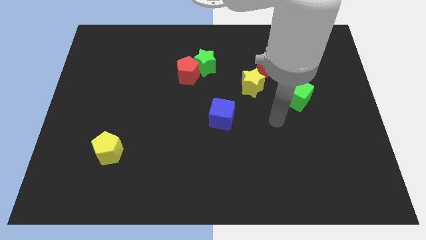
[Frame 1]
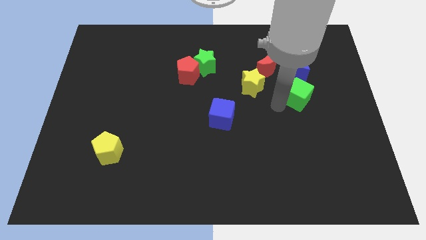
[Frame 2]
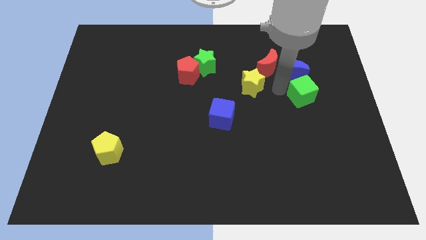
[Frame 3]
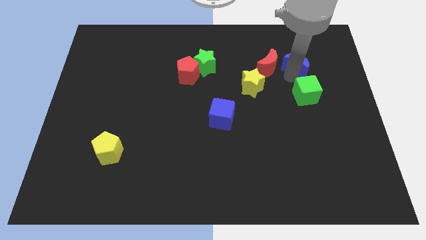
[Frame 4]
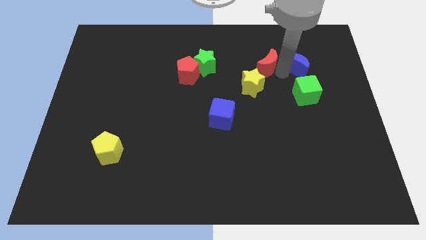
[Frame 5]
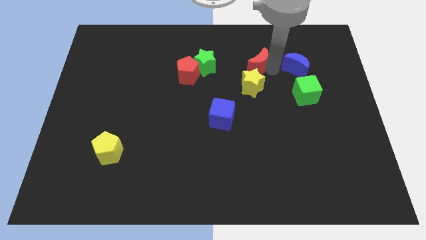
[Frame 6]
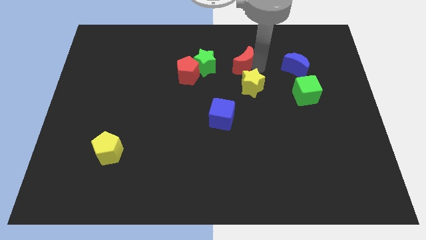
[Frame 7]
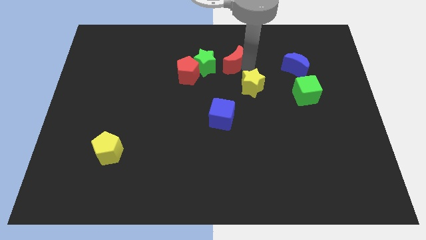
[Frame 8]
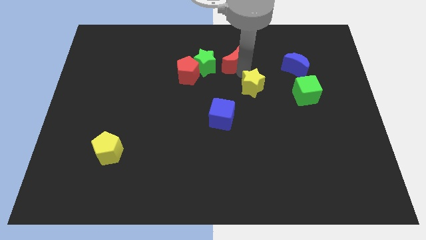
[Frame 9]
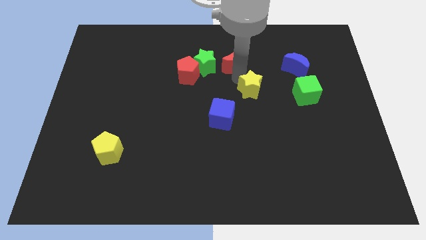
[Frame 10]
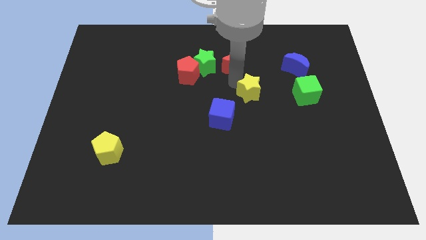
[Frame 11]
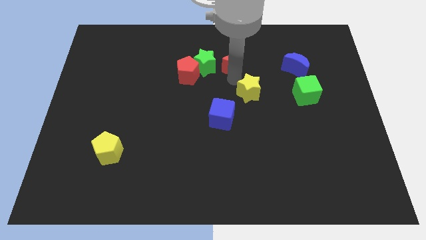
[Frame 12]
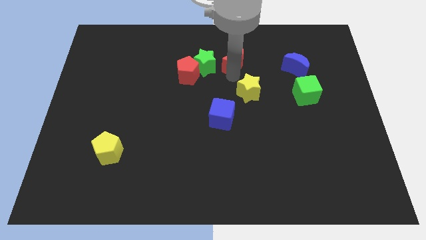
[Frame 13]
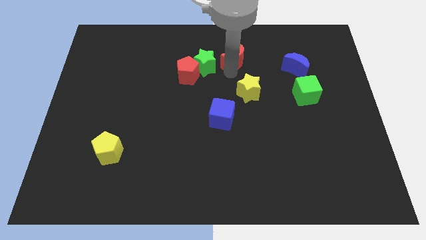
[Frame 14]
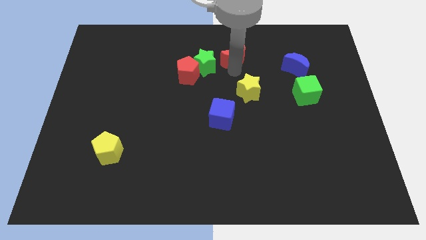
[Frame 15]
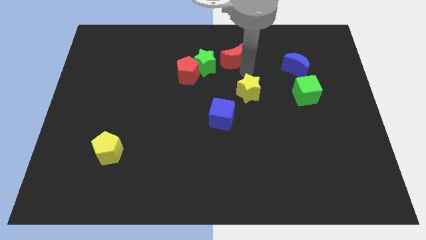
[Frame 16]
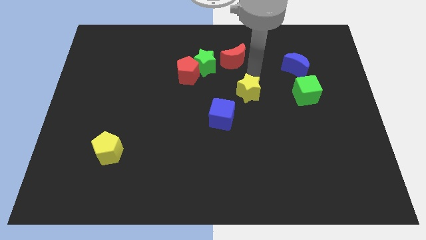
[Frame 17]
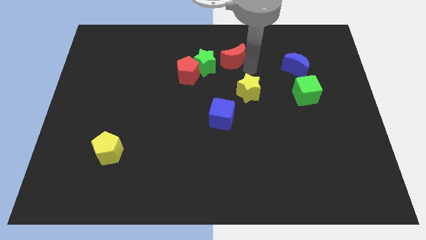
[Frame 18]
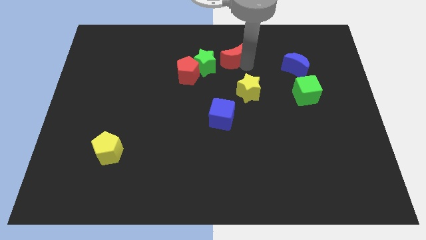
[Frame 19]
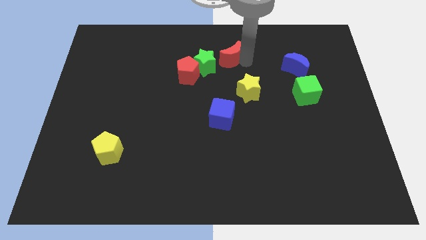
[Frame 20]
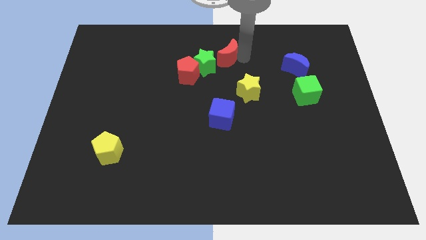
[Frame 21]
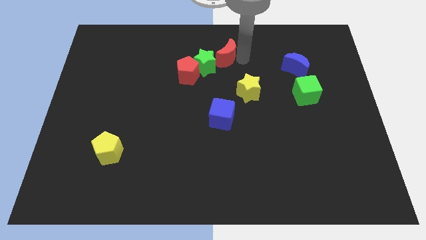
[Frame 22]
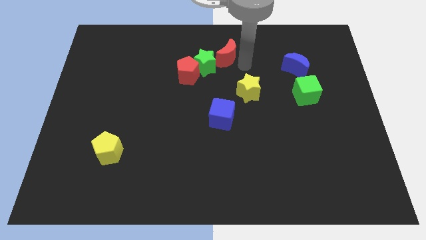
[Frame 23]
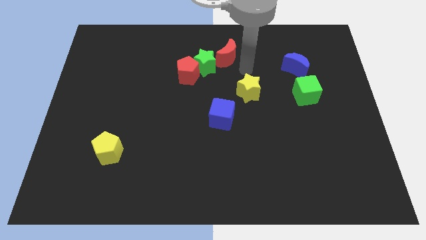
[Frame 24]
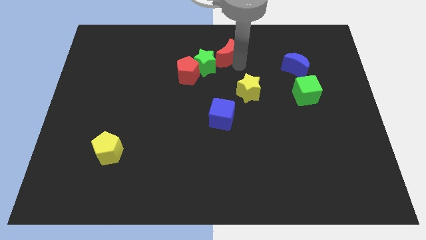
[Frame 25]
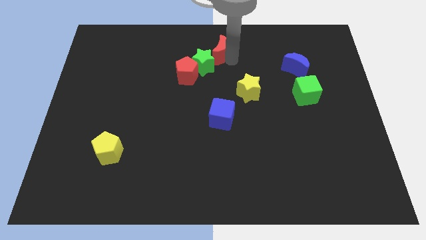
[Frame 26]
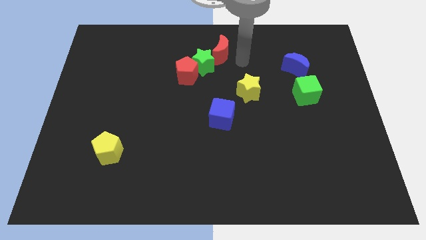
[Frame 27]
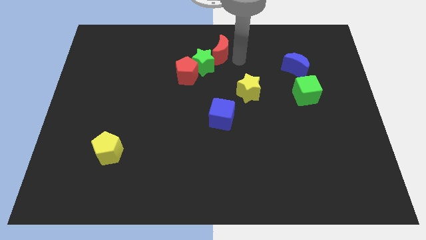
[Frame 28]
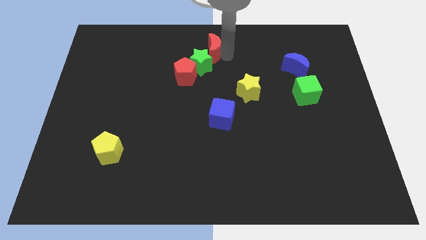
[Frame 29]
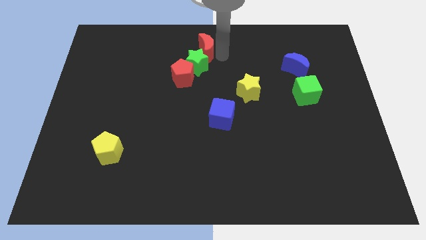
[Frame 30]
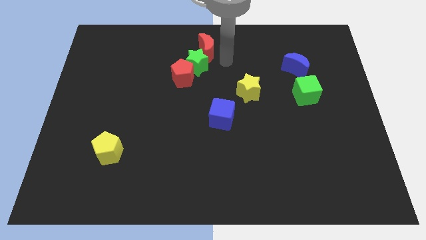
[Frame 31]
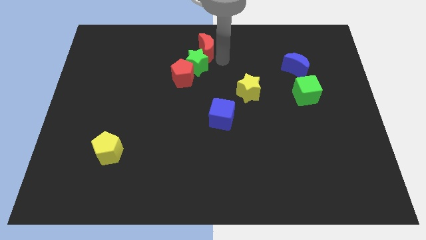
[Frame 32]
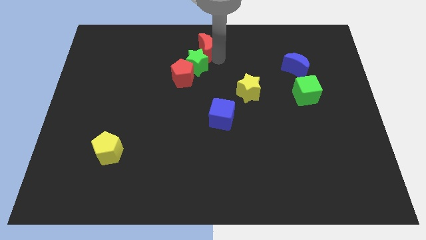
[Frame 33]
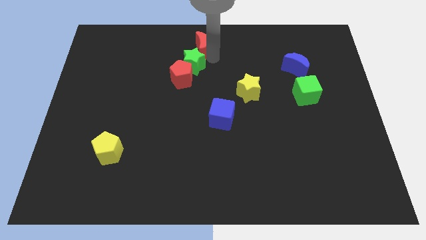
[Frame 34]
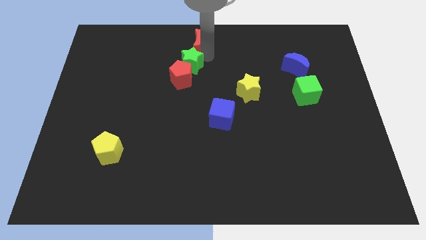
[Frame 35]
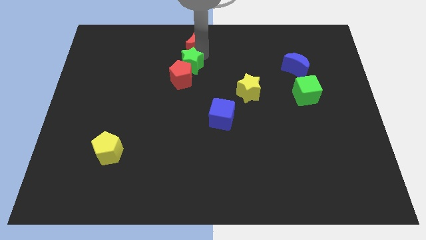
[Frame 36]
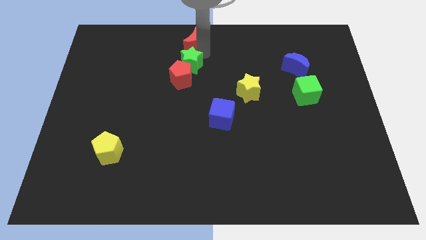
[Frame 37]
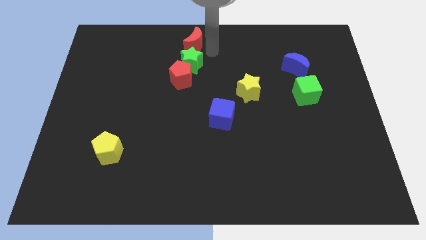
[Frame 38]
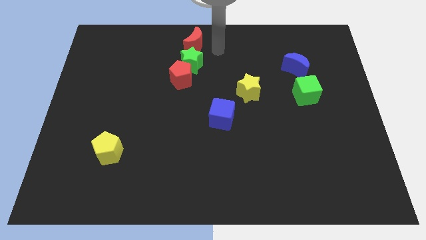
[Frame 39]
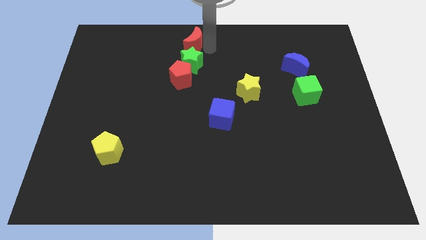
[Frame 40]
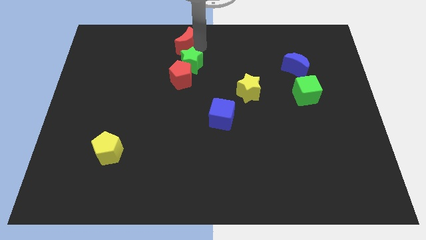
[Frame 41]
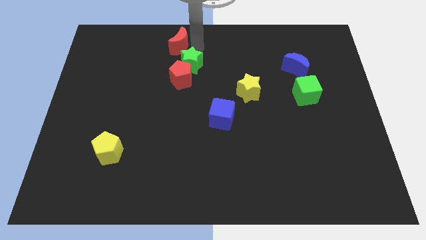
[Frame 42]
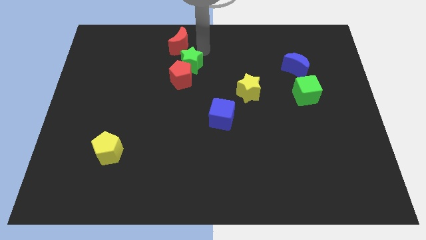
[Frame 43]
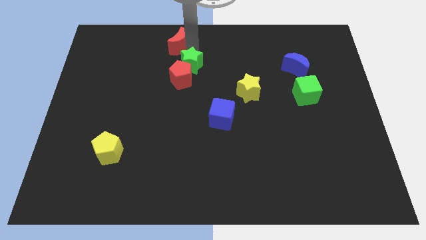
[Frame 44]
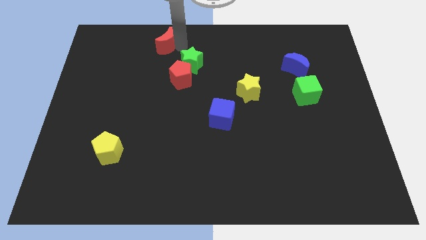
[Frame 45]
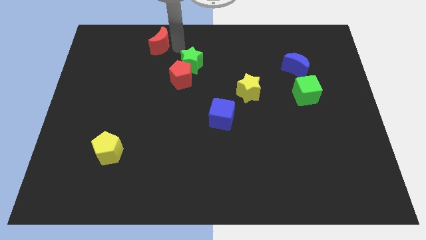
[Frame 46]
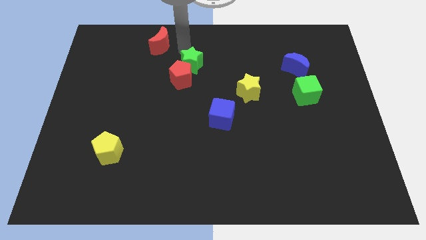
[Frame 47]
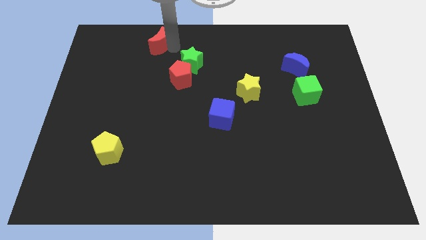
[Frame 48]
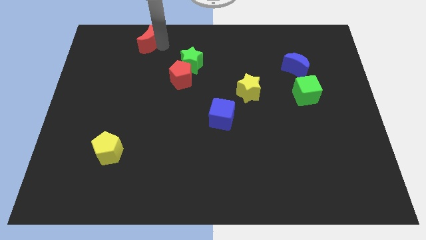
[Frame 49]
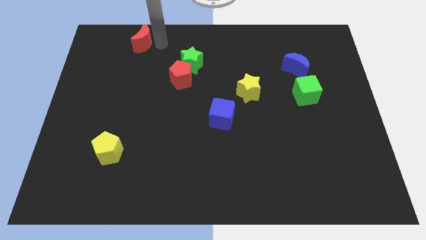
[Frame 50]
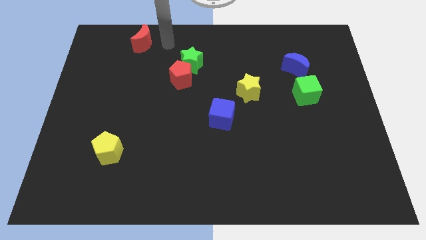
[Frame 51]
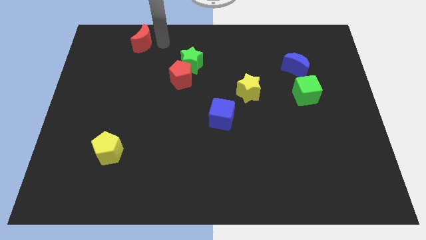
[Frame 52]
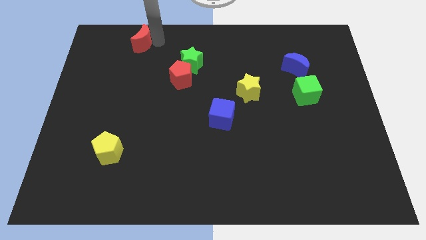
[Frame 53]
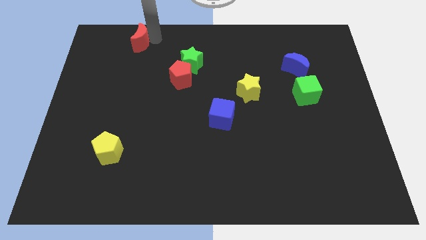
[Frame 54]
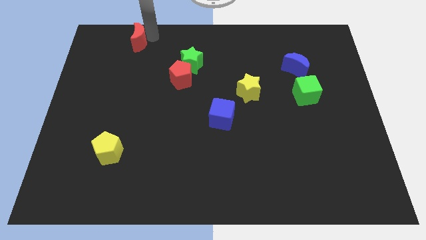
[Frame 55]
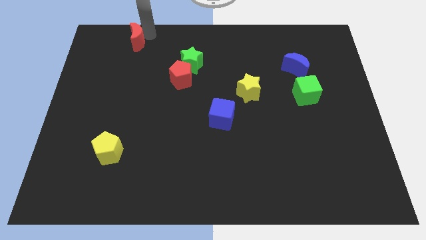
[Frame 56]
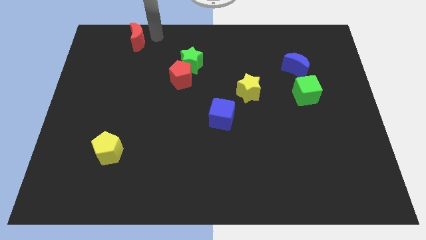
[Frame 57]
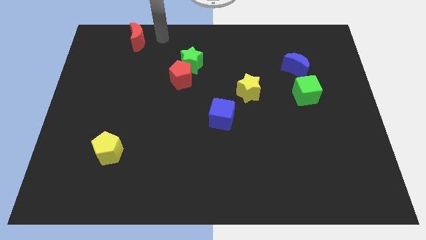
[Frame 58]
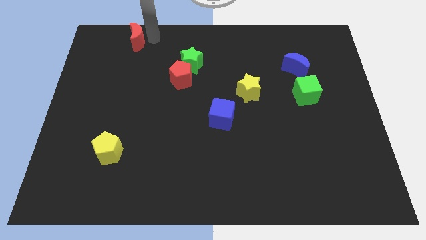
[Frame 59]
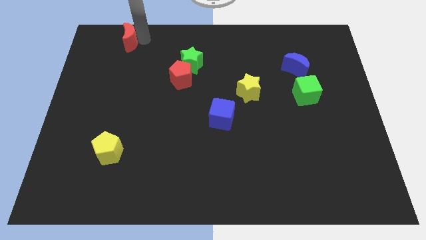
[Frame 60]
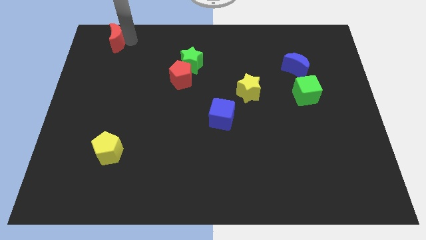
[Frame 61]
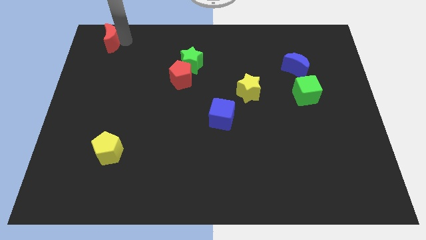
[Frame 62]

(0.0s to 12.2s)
push the red moon to the upper left corner

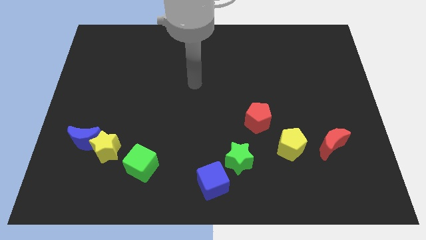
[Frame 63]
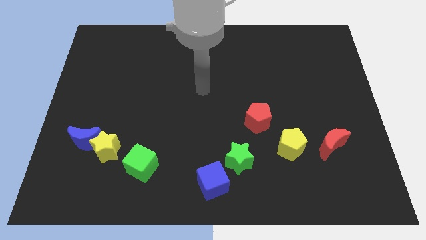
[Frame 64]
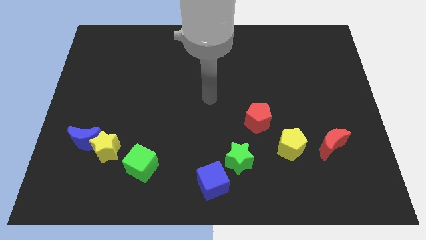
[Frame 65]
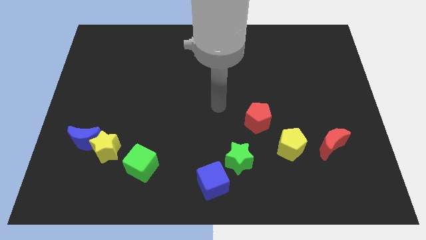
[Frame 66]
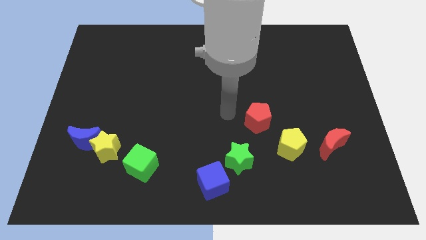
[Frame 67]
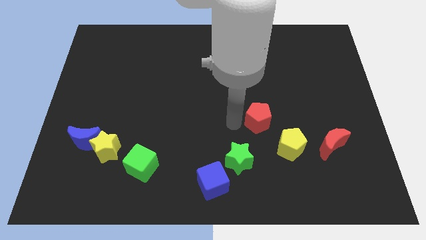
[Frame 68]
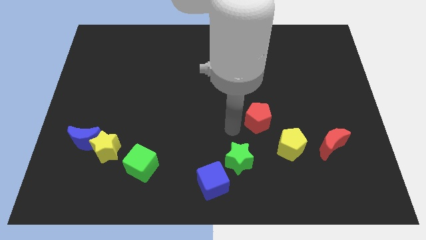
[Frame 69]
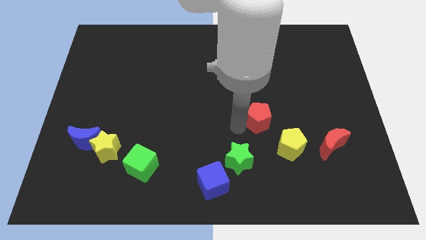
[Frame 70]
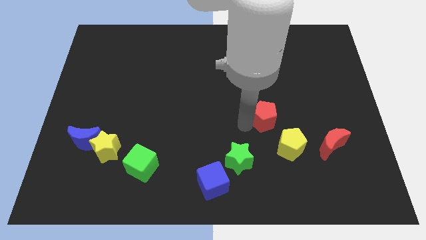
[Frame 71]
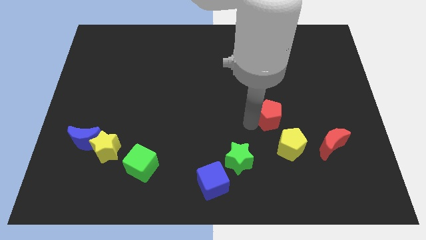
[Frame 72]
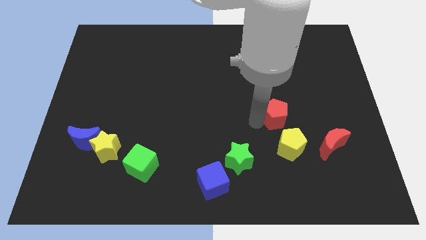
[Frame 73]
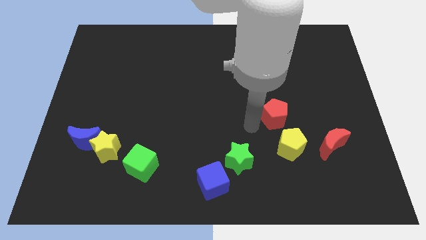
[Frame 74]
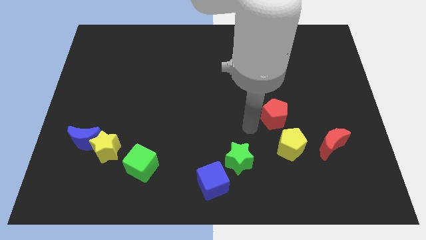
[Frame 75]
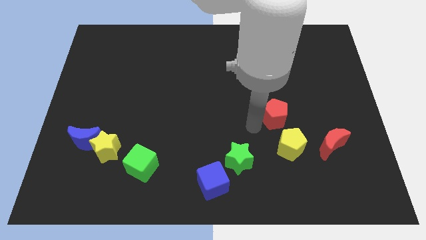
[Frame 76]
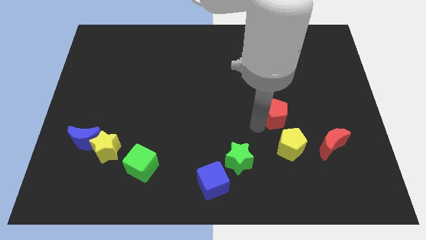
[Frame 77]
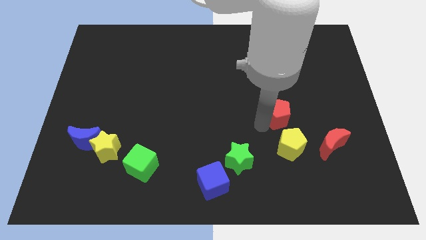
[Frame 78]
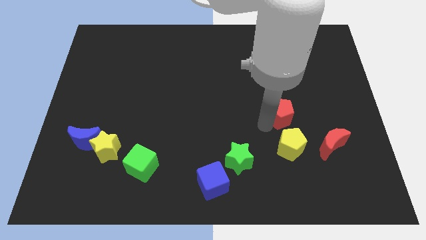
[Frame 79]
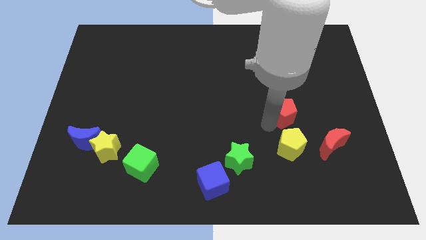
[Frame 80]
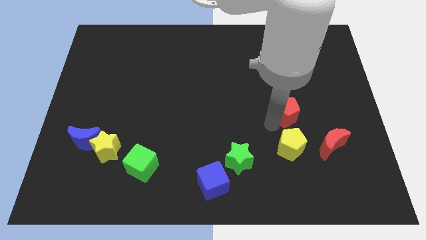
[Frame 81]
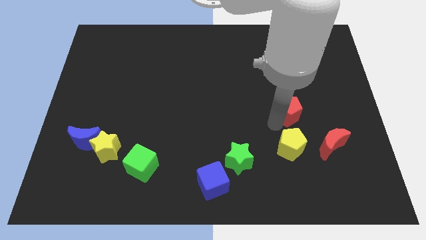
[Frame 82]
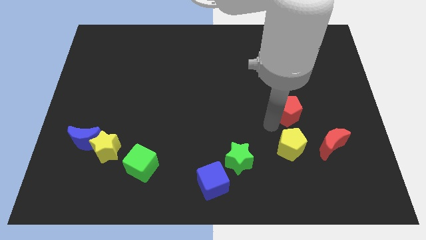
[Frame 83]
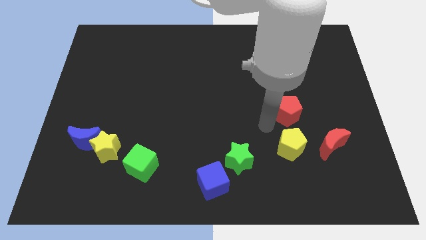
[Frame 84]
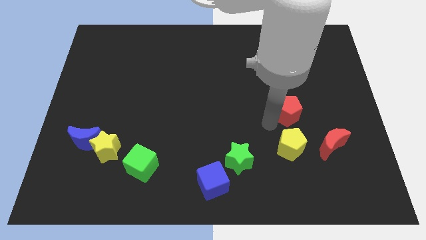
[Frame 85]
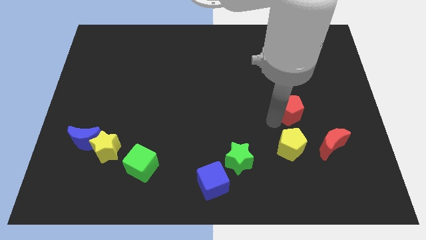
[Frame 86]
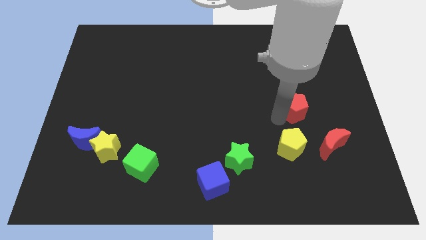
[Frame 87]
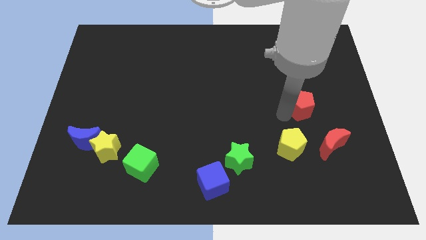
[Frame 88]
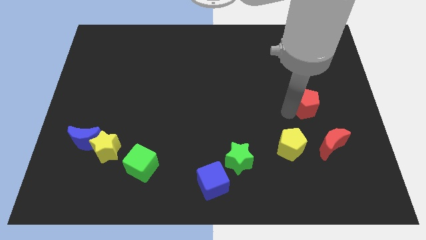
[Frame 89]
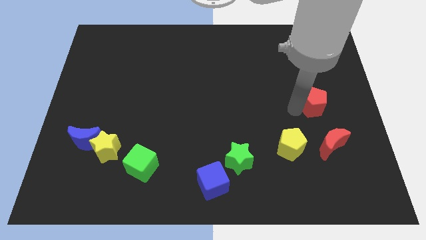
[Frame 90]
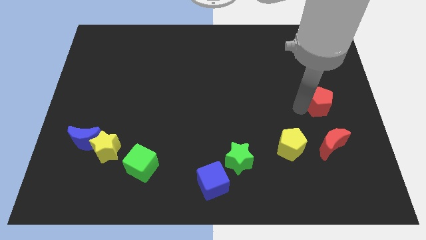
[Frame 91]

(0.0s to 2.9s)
put the red pentagon to the right side of the board
